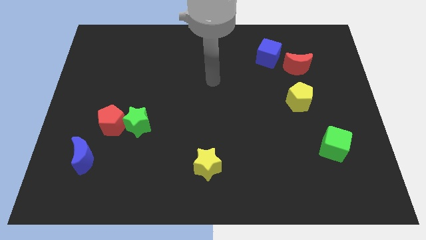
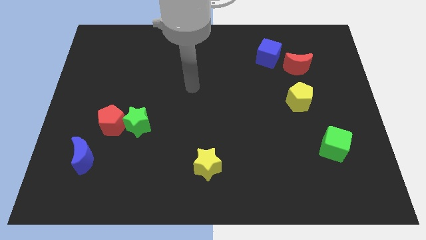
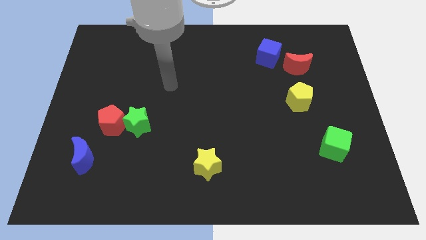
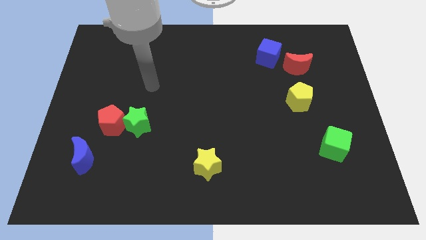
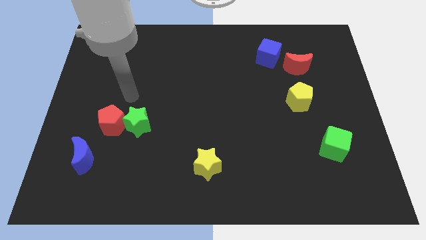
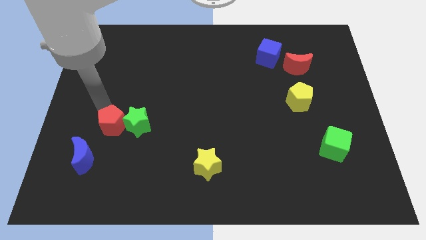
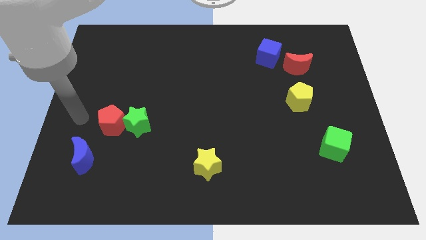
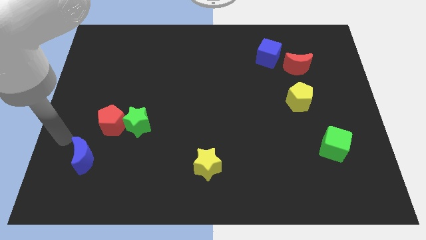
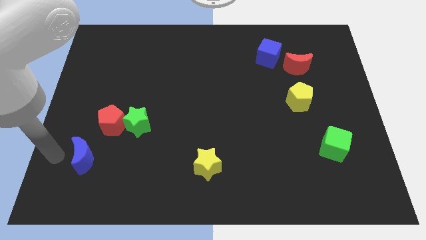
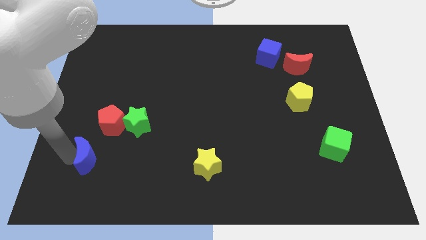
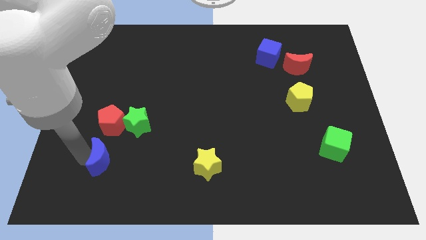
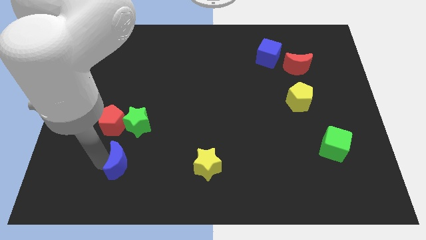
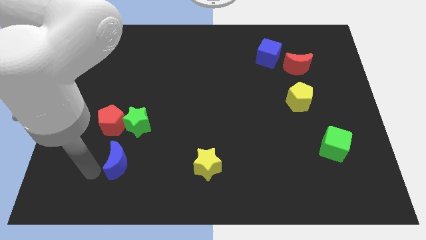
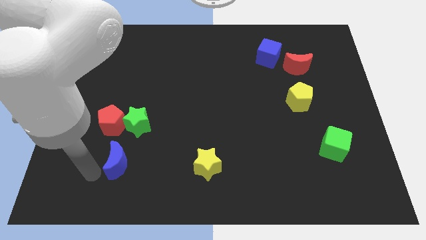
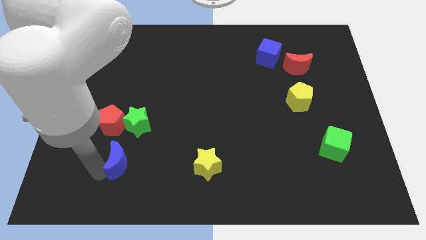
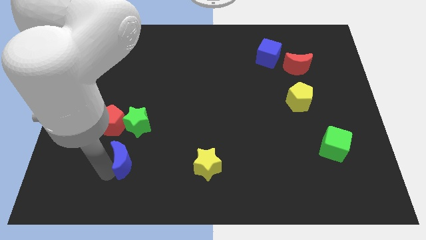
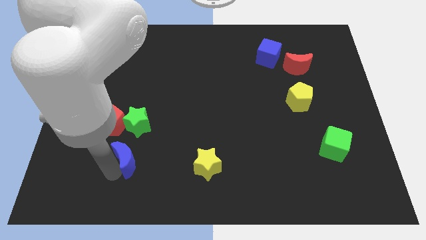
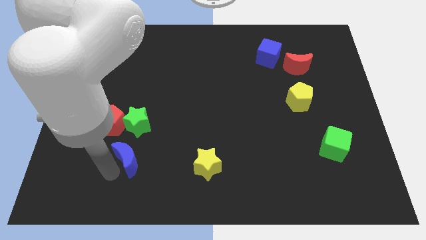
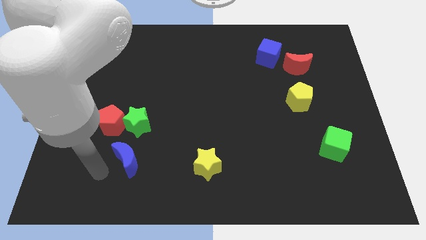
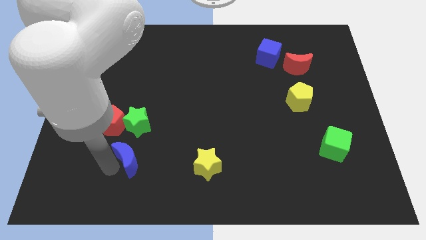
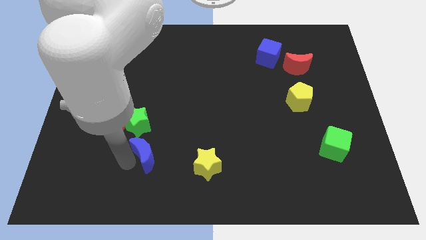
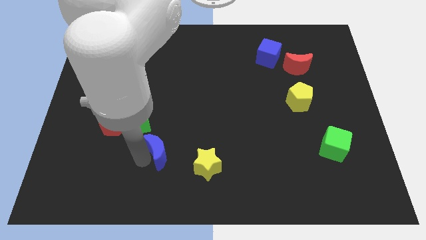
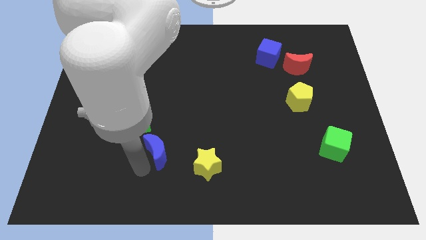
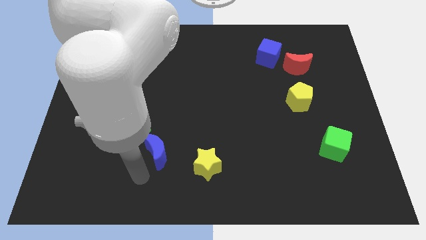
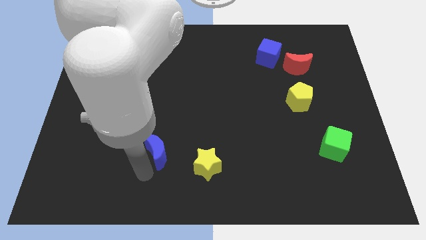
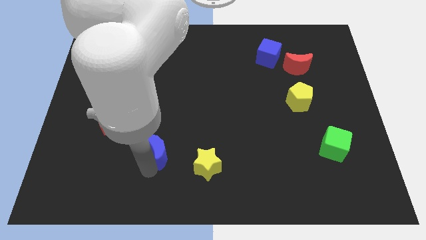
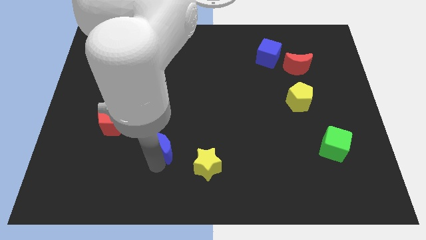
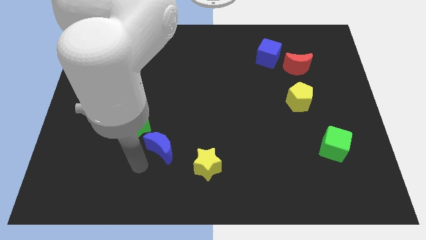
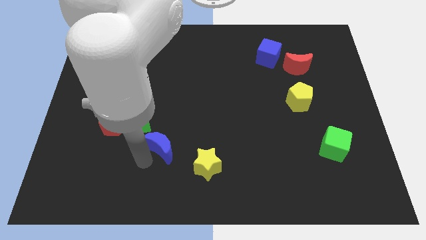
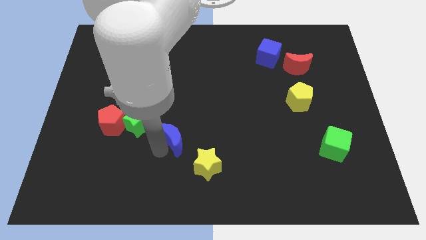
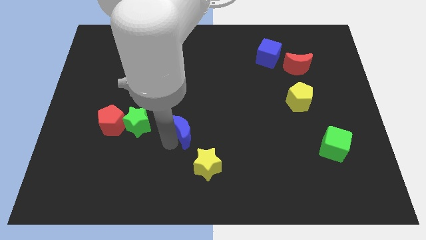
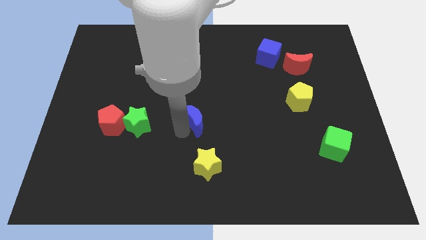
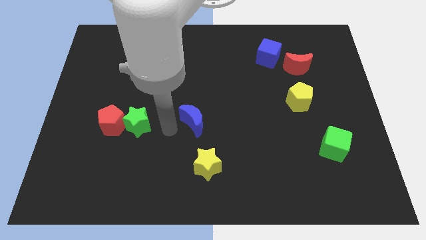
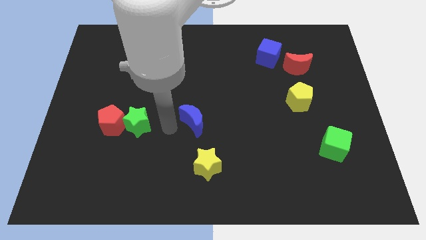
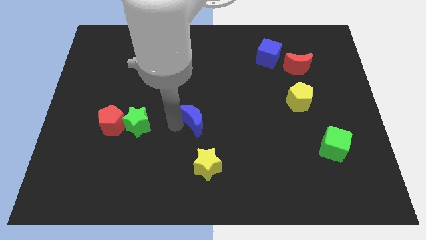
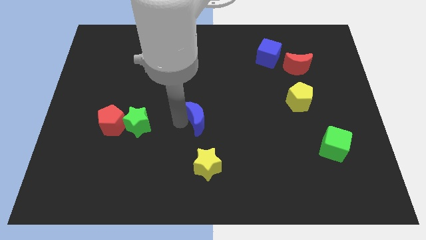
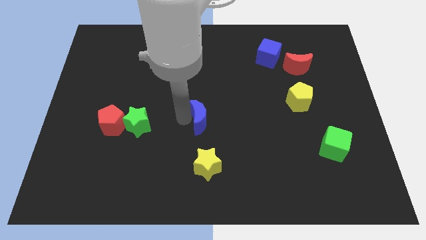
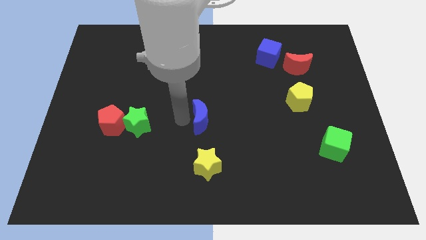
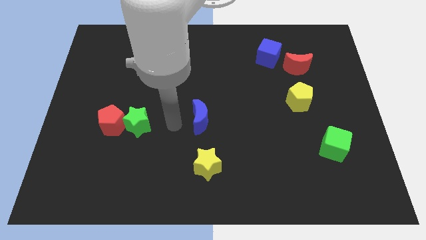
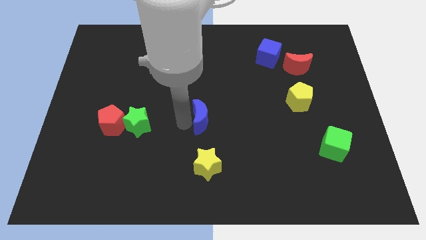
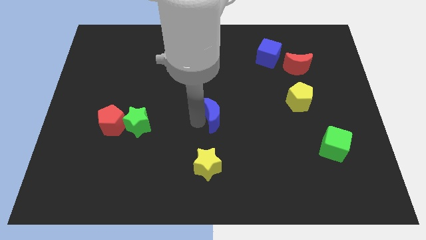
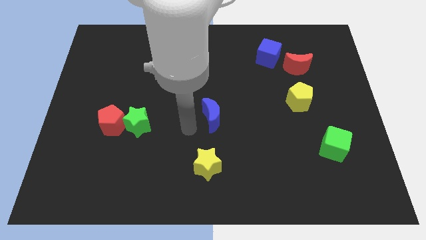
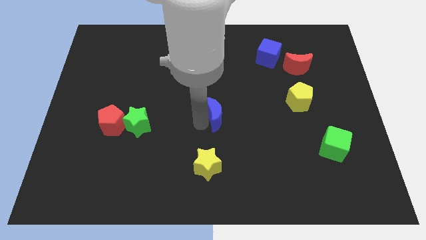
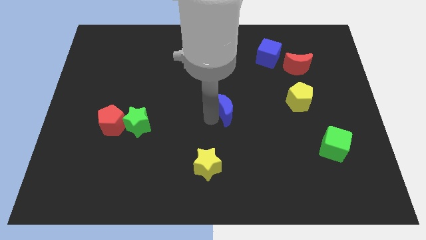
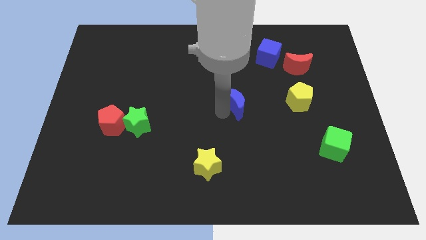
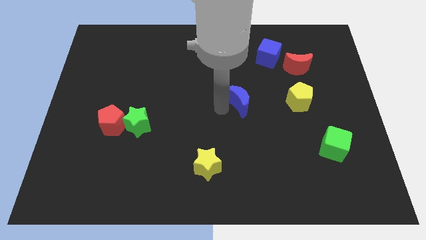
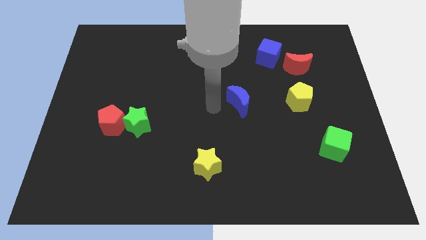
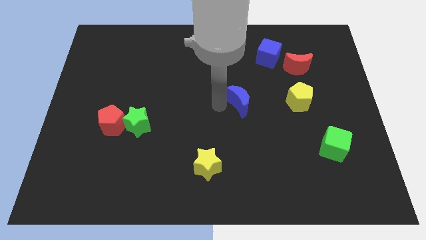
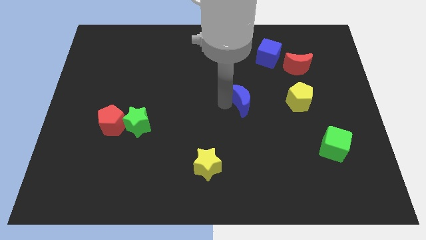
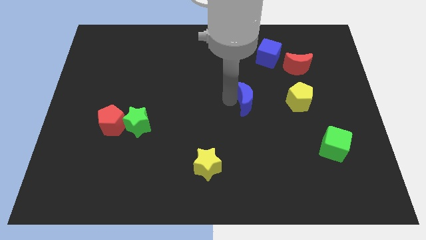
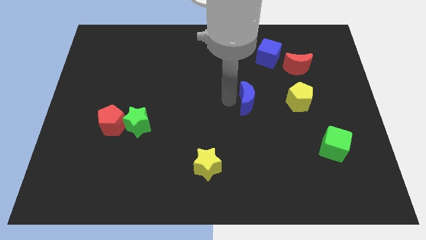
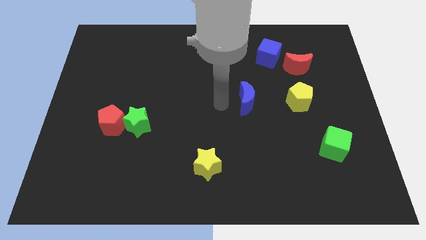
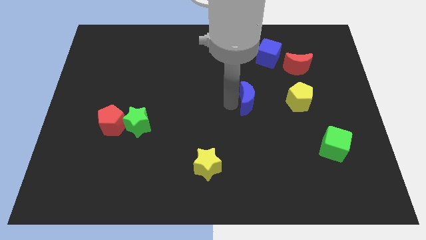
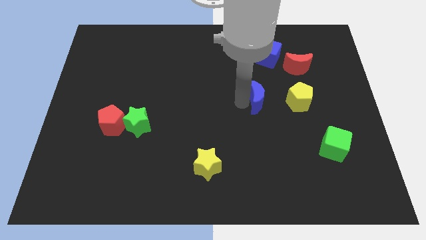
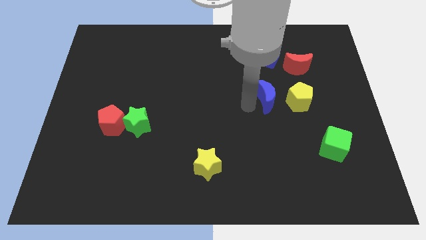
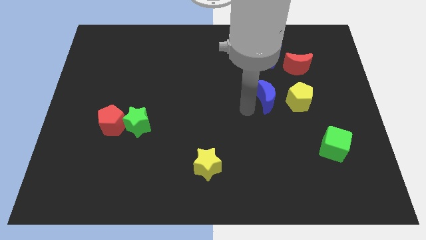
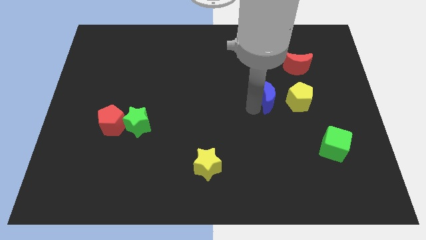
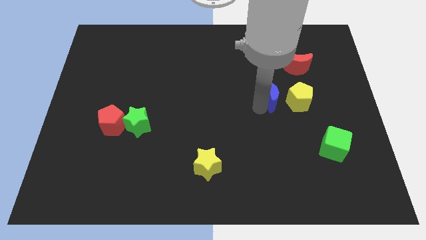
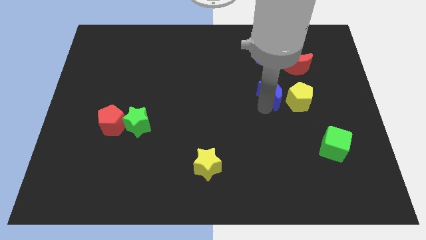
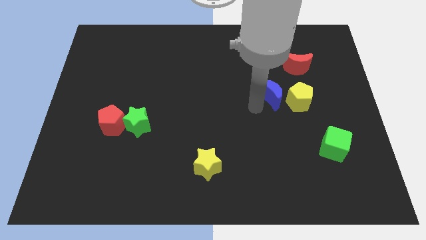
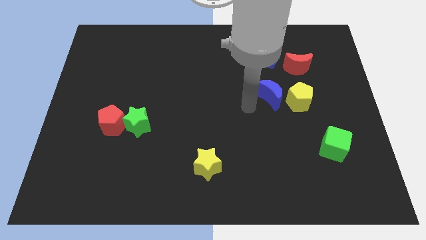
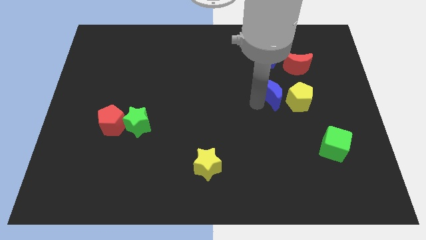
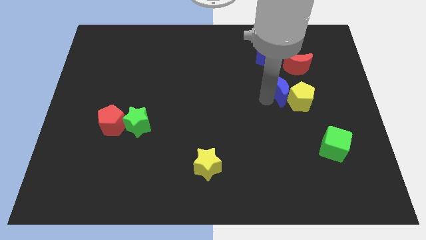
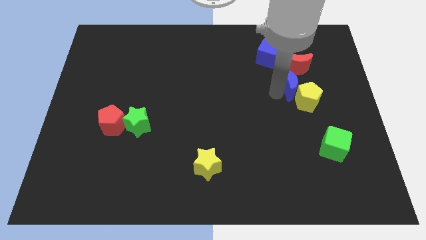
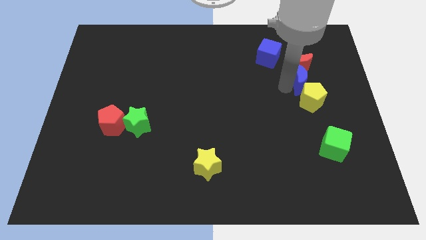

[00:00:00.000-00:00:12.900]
put the blue moon to the bottom right of the red moon

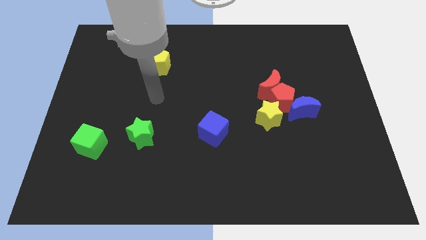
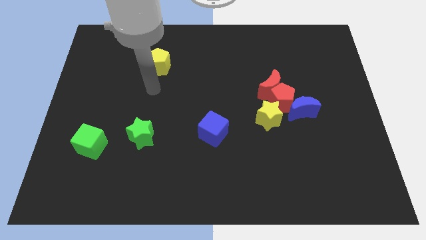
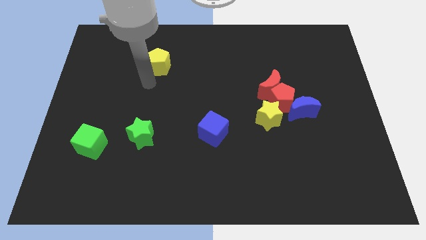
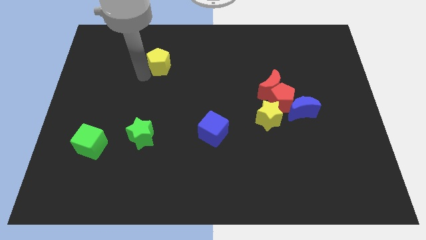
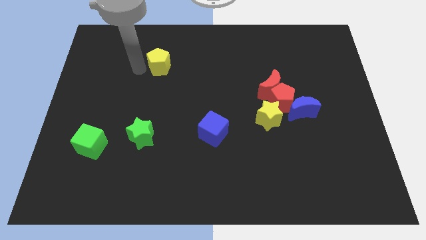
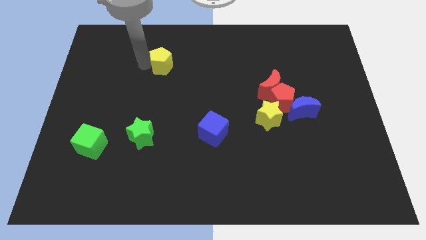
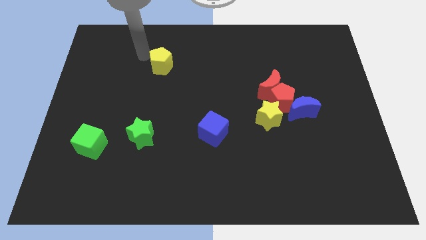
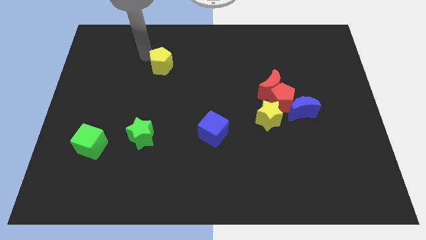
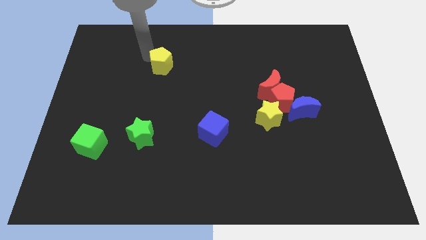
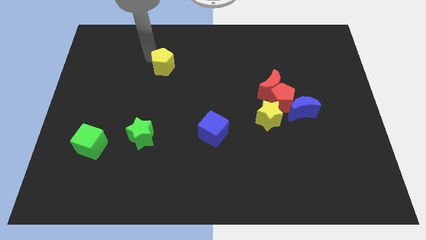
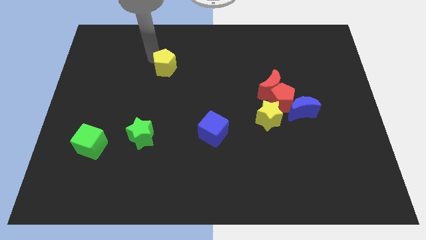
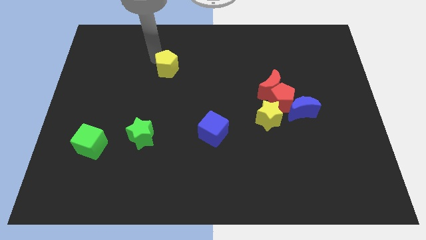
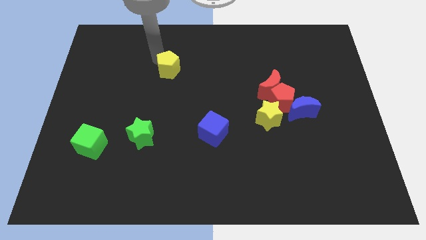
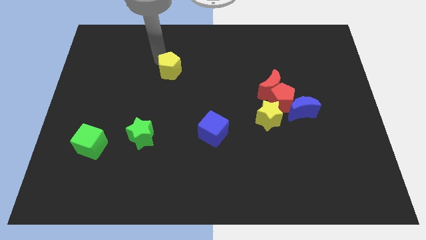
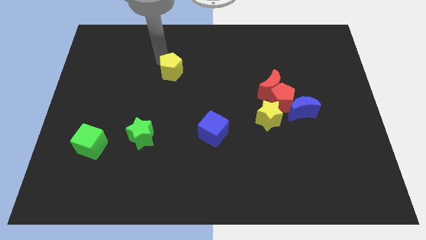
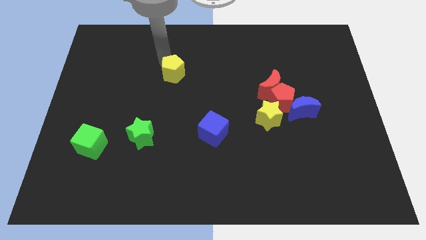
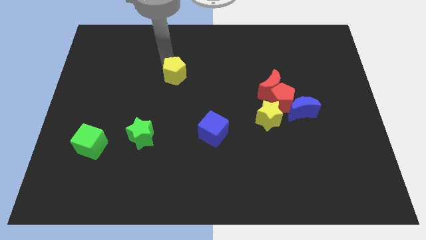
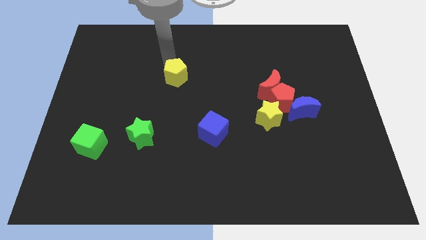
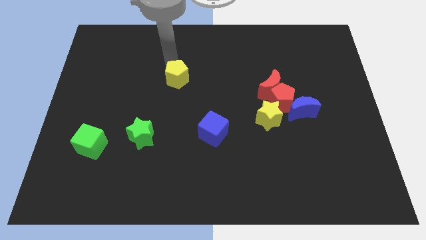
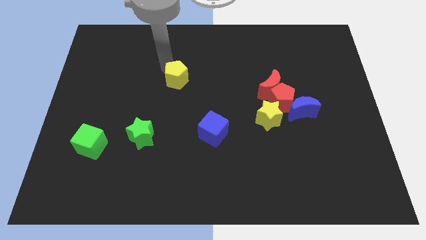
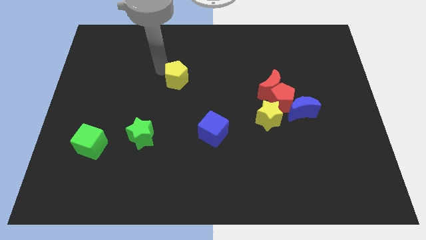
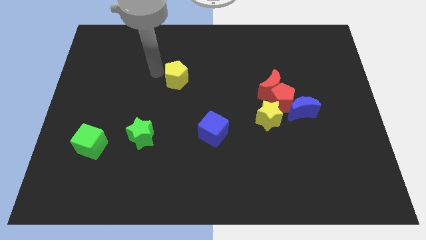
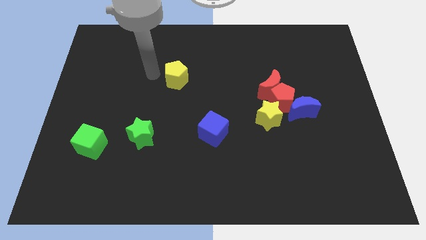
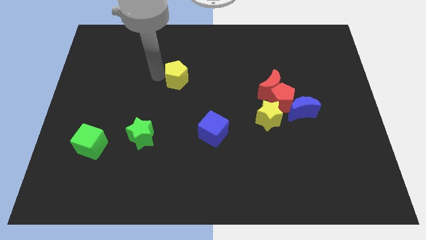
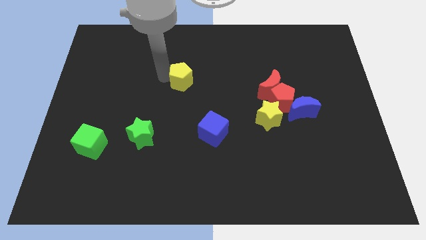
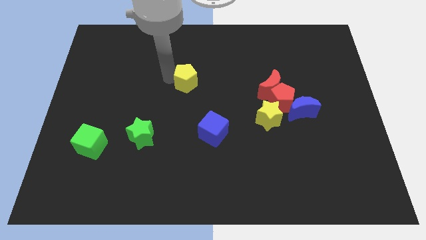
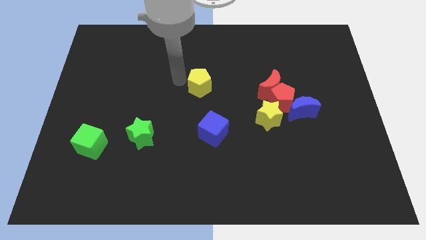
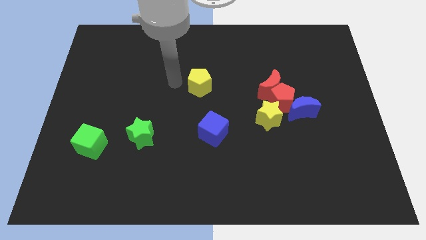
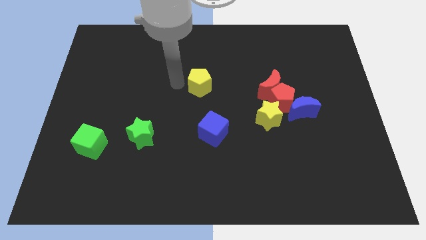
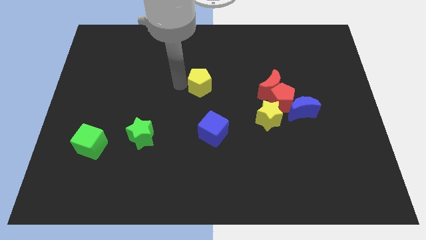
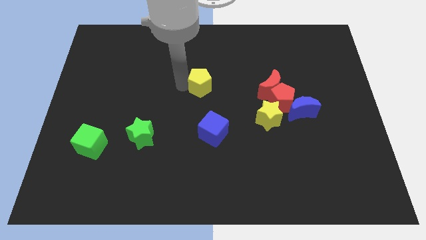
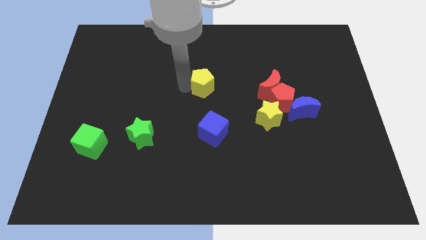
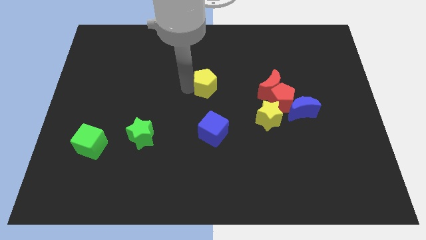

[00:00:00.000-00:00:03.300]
push the yellow pentagon left of the red moon
